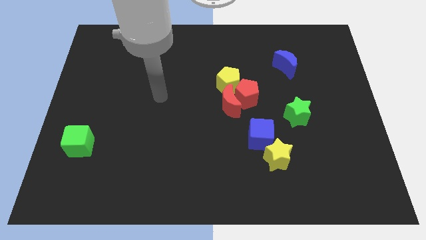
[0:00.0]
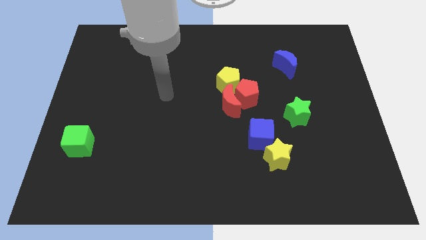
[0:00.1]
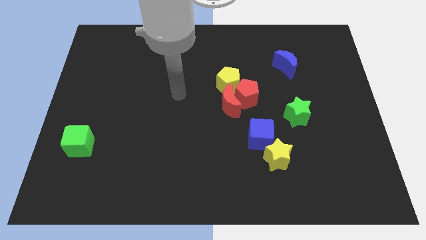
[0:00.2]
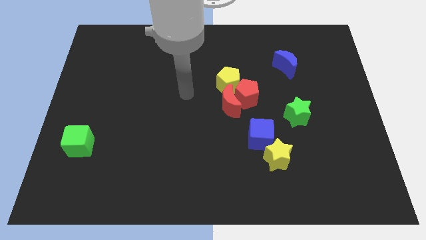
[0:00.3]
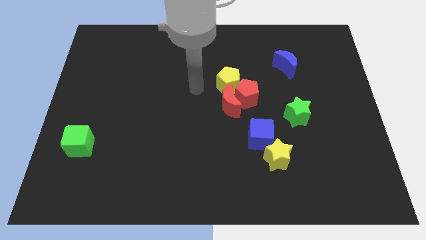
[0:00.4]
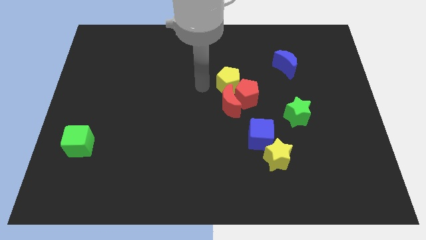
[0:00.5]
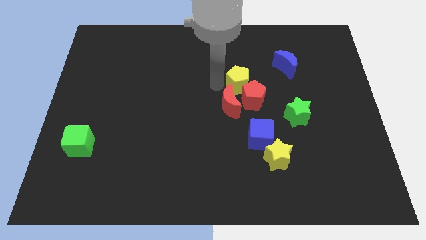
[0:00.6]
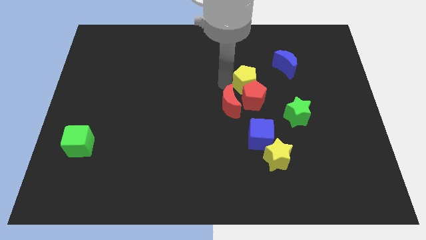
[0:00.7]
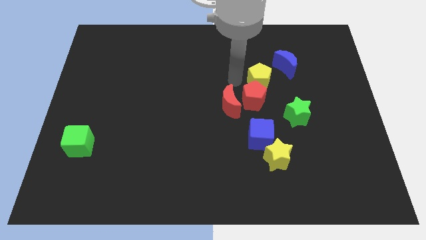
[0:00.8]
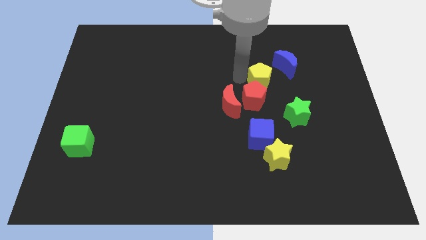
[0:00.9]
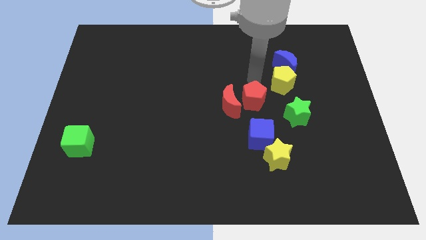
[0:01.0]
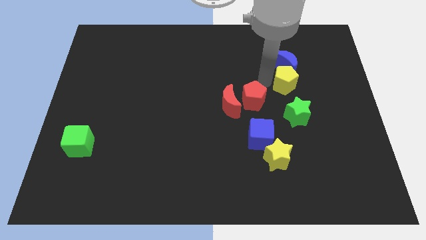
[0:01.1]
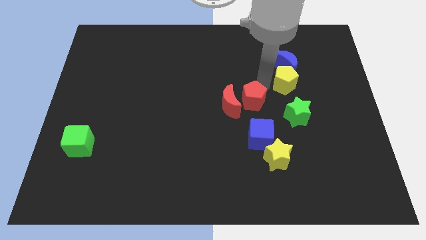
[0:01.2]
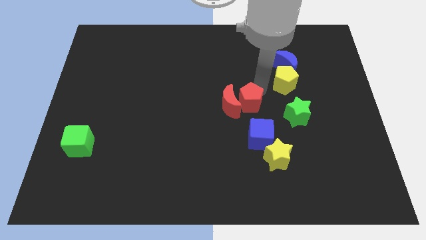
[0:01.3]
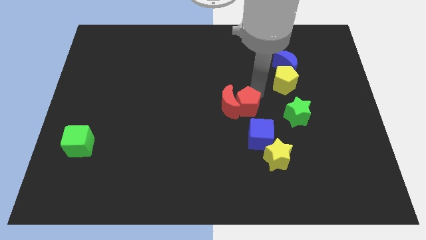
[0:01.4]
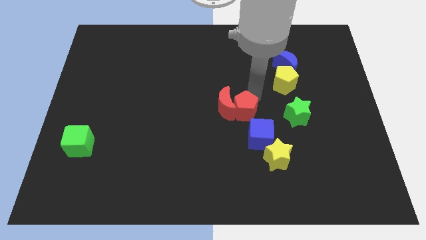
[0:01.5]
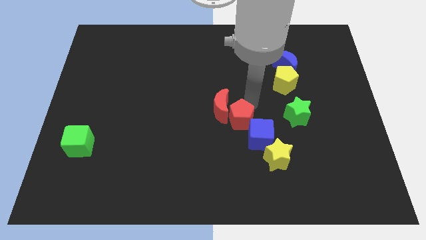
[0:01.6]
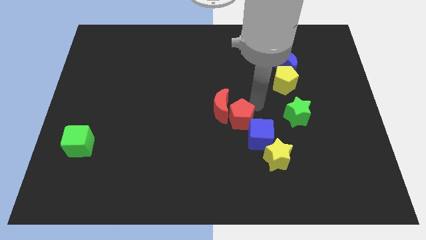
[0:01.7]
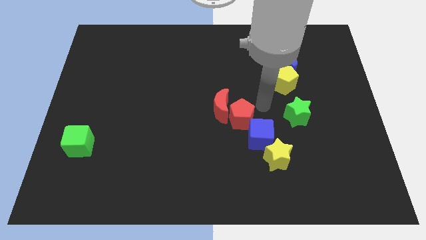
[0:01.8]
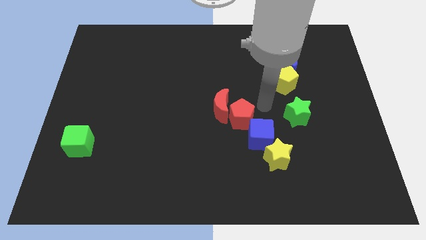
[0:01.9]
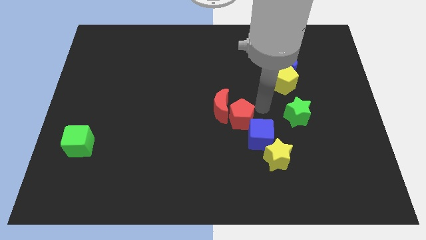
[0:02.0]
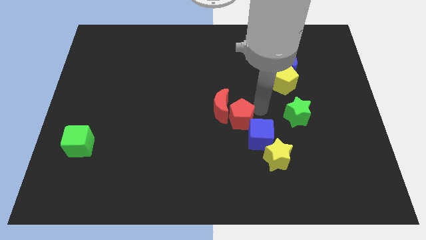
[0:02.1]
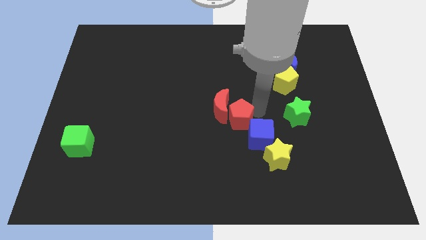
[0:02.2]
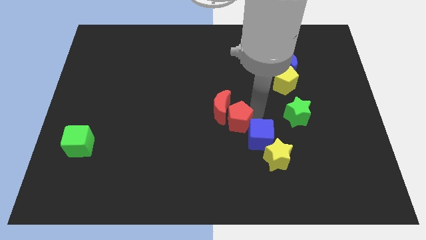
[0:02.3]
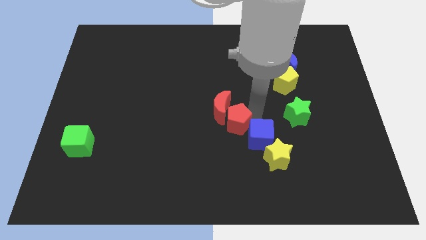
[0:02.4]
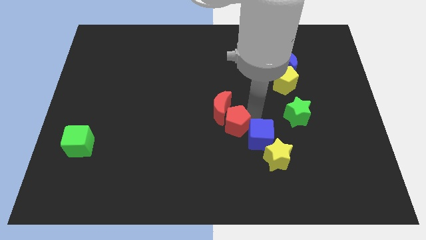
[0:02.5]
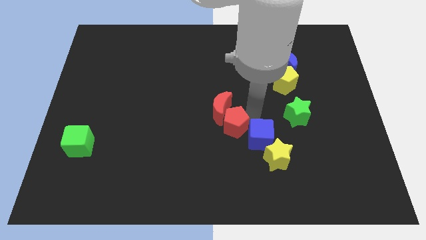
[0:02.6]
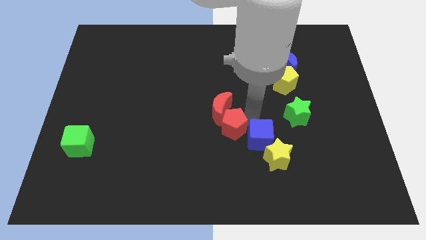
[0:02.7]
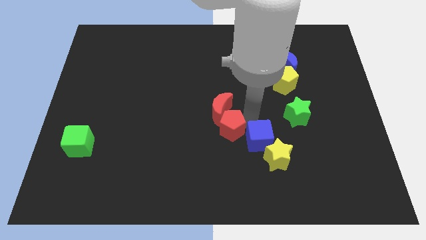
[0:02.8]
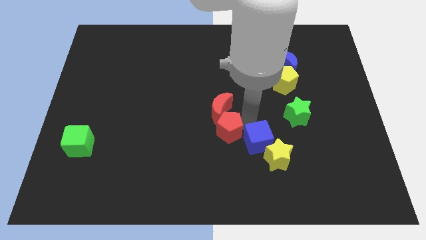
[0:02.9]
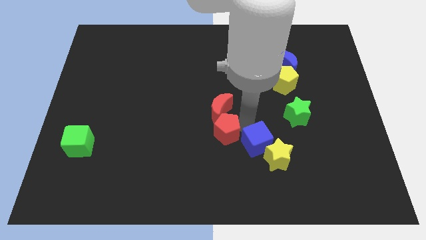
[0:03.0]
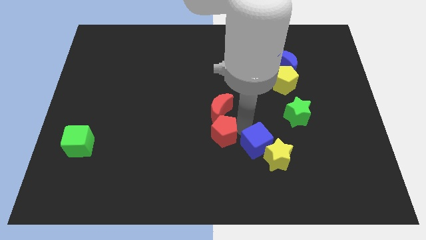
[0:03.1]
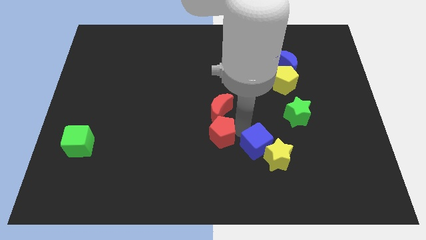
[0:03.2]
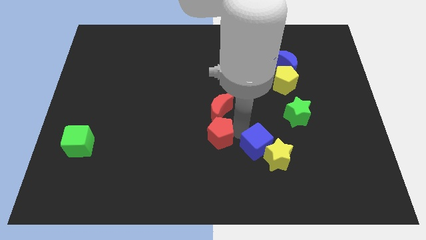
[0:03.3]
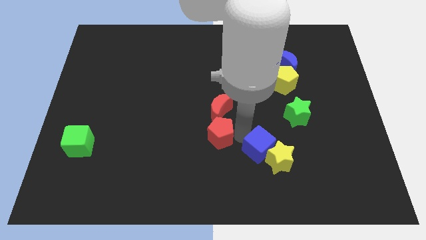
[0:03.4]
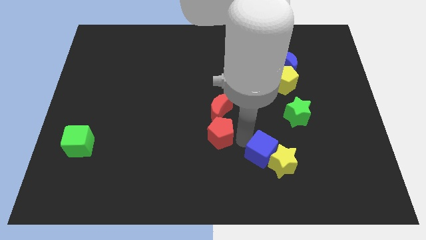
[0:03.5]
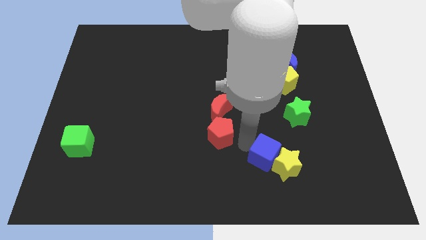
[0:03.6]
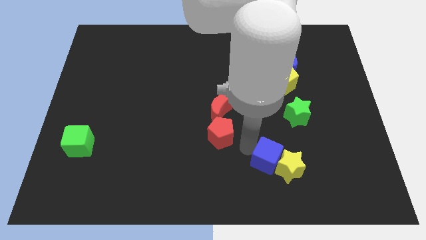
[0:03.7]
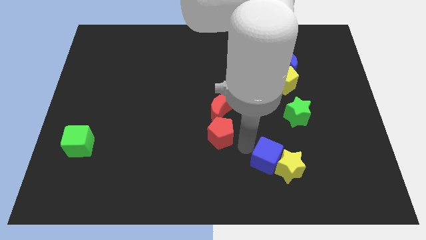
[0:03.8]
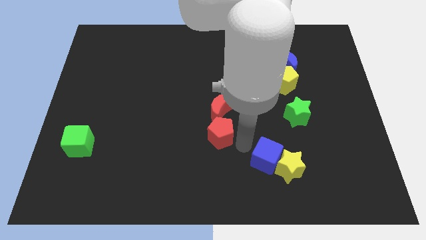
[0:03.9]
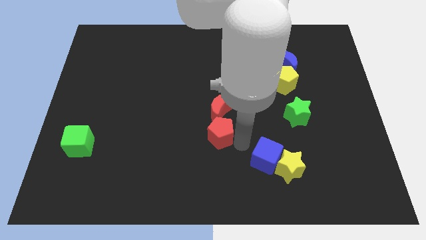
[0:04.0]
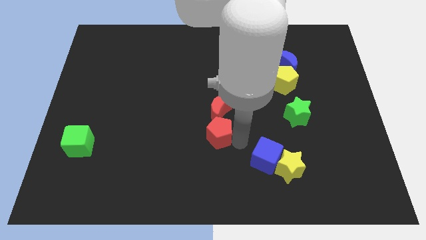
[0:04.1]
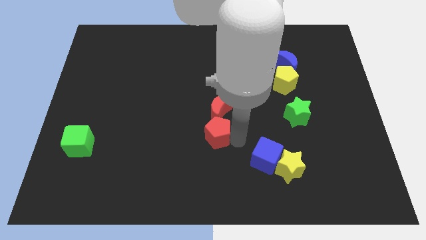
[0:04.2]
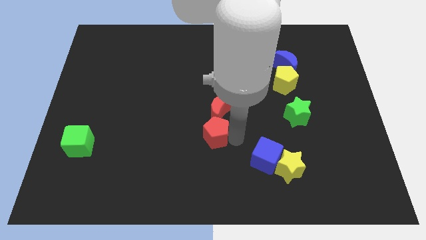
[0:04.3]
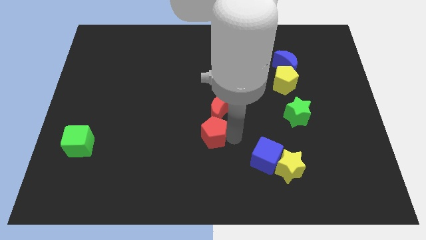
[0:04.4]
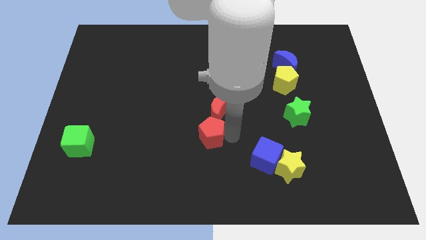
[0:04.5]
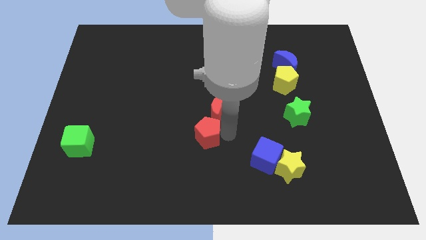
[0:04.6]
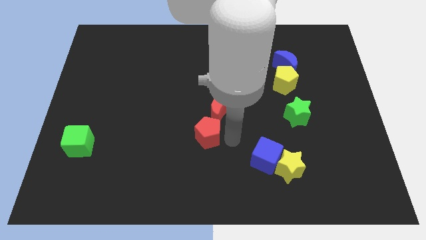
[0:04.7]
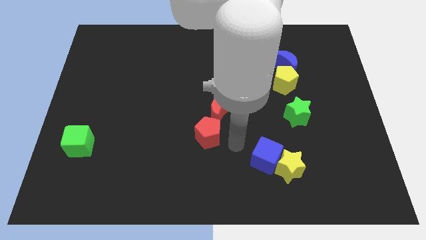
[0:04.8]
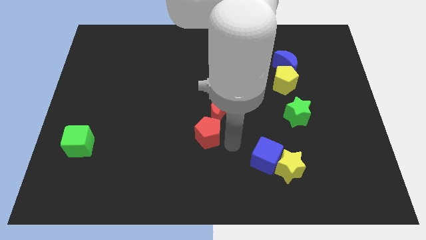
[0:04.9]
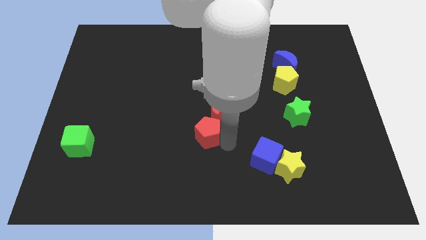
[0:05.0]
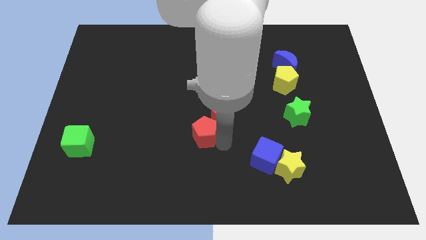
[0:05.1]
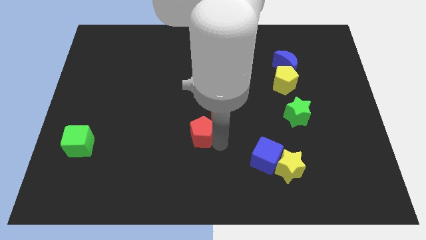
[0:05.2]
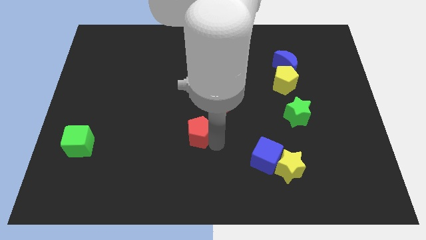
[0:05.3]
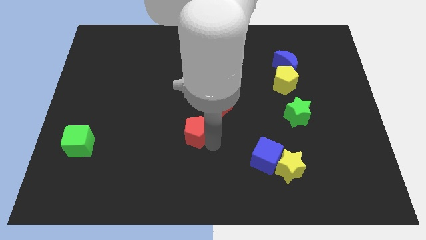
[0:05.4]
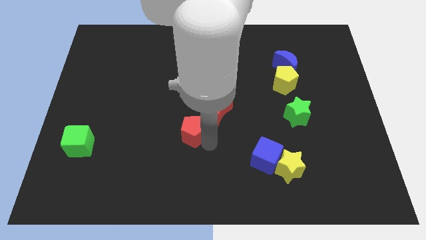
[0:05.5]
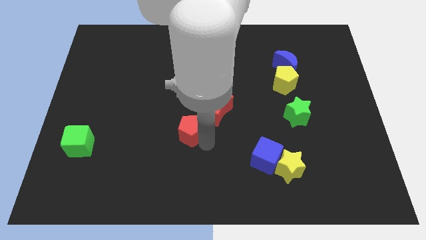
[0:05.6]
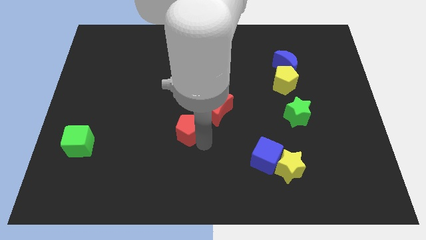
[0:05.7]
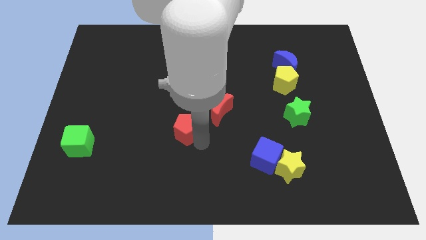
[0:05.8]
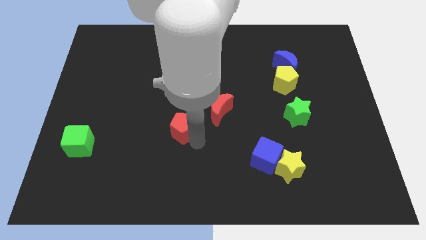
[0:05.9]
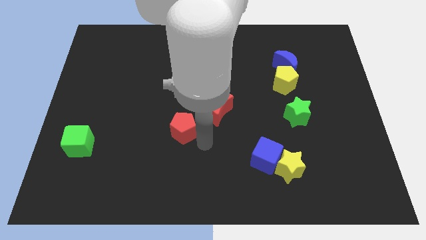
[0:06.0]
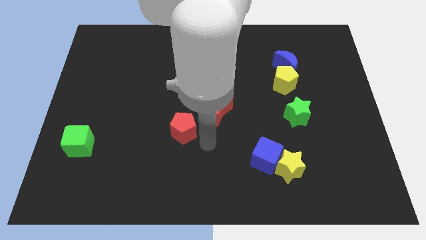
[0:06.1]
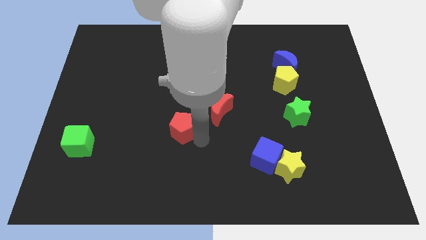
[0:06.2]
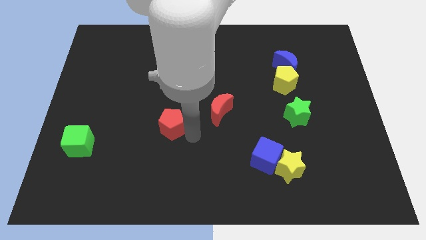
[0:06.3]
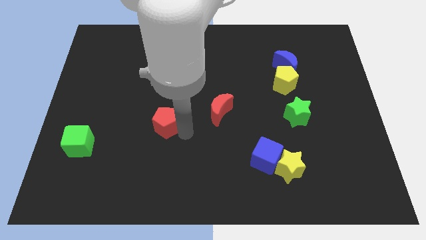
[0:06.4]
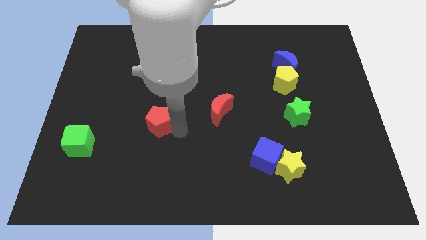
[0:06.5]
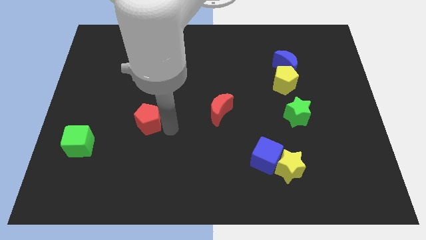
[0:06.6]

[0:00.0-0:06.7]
move the red pentagon left

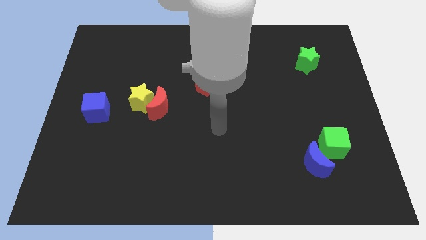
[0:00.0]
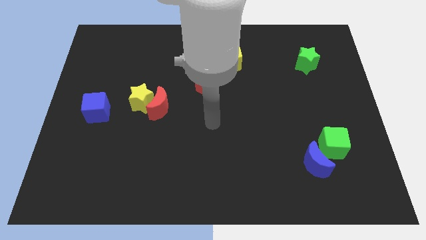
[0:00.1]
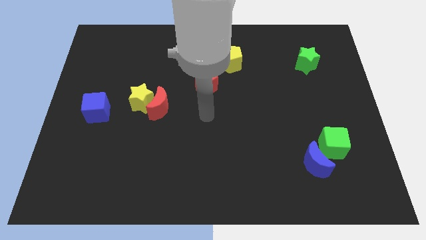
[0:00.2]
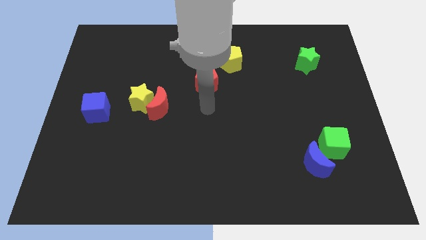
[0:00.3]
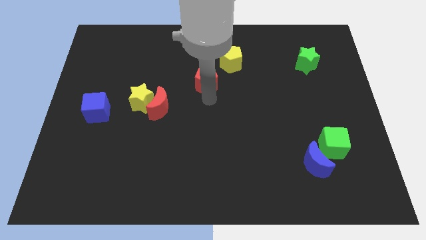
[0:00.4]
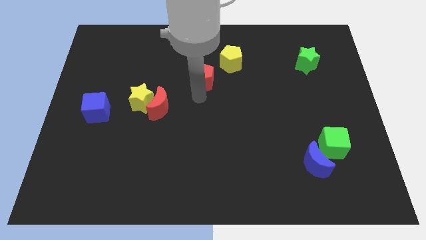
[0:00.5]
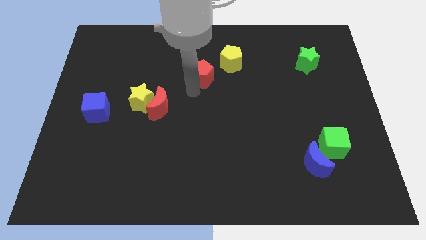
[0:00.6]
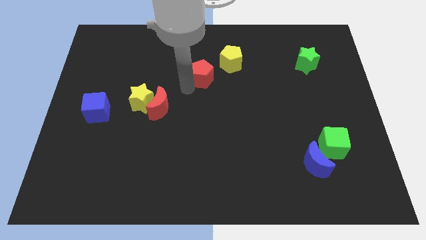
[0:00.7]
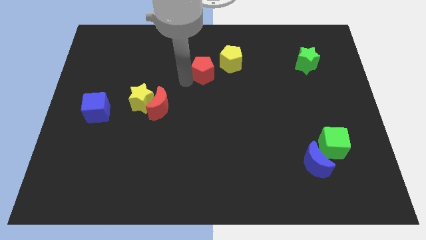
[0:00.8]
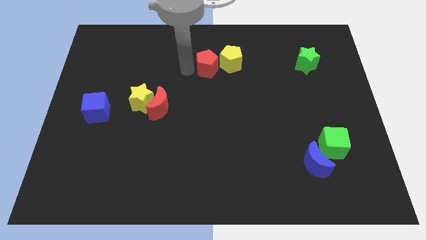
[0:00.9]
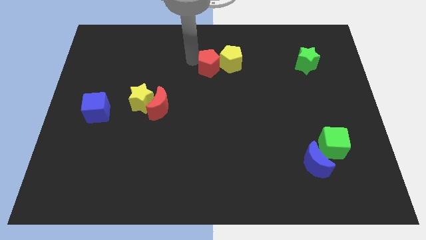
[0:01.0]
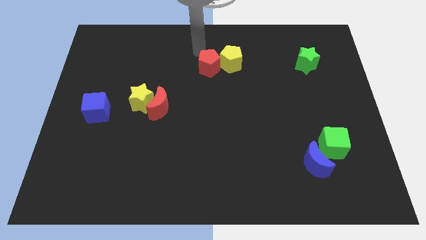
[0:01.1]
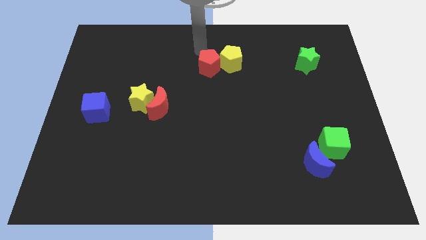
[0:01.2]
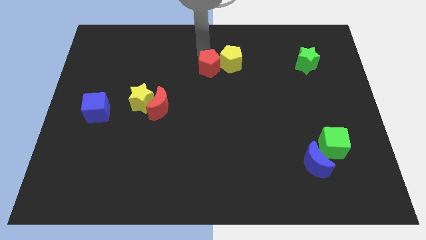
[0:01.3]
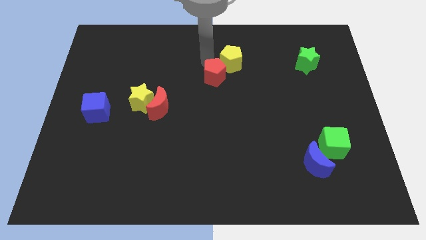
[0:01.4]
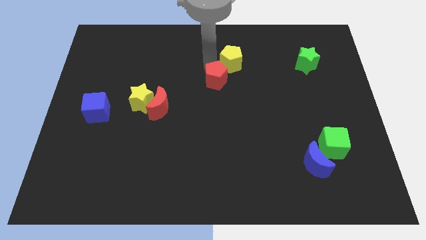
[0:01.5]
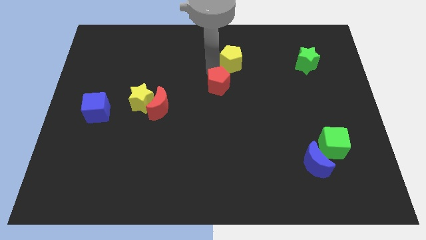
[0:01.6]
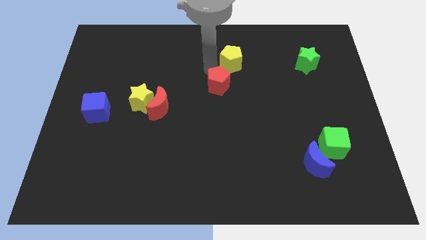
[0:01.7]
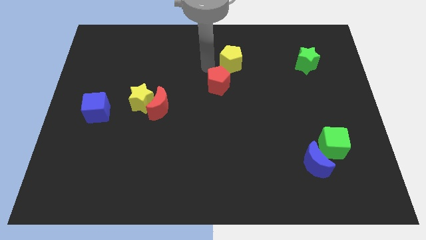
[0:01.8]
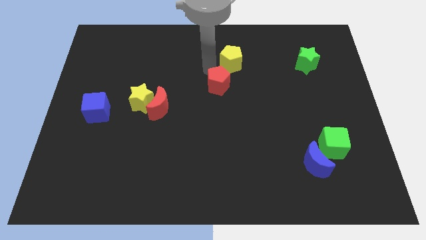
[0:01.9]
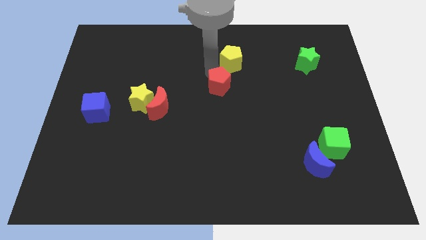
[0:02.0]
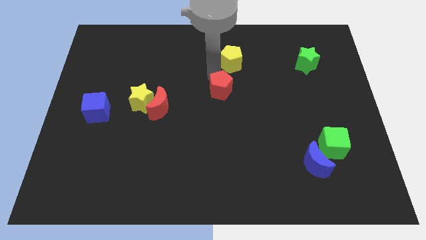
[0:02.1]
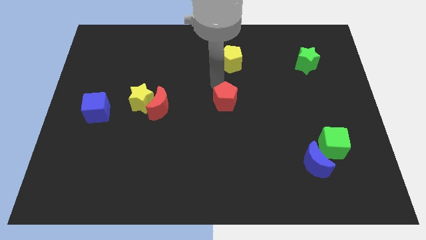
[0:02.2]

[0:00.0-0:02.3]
slide the red pentagon down and to the right diagonally slightly
